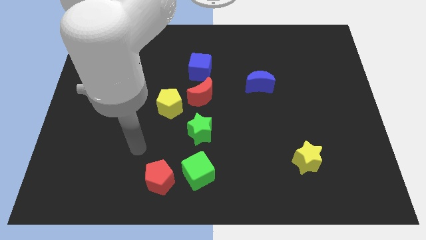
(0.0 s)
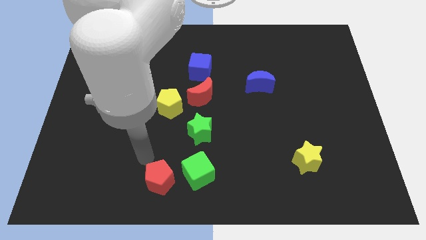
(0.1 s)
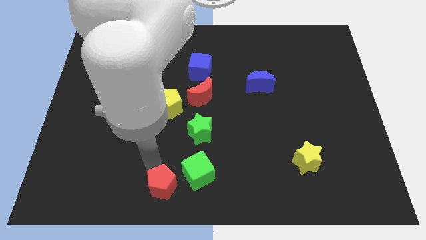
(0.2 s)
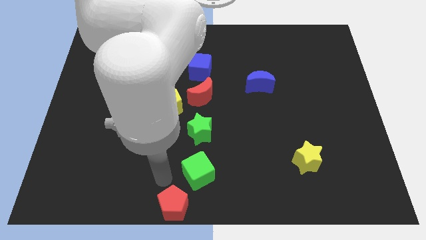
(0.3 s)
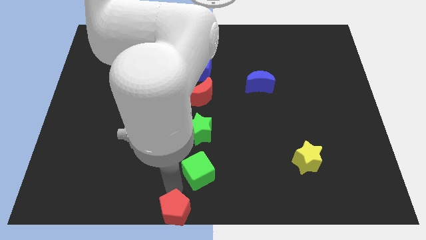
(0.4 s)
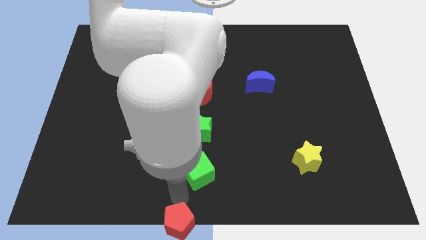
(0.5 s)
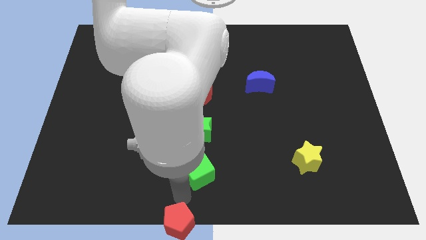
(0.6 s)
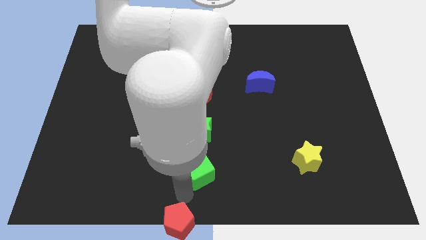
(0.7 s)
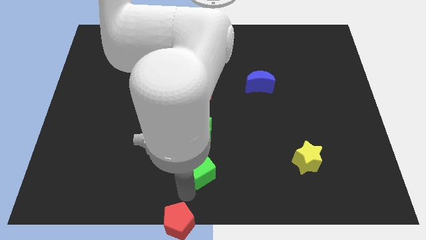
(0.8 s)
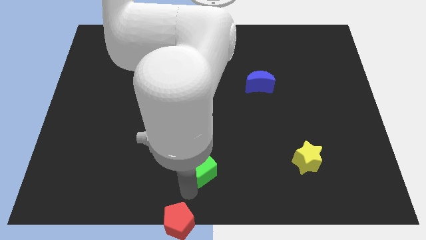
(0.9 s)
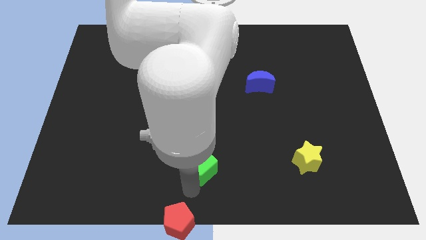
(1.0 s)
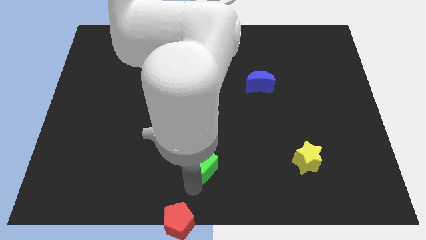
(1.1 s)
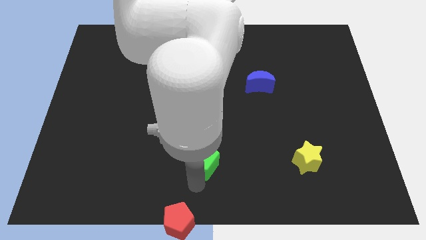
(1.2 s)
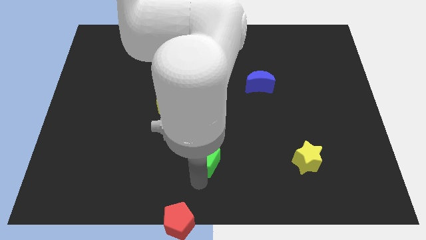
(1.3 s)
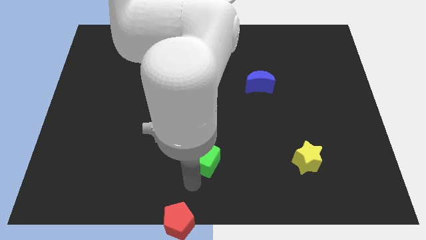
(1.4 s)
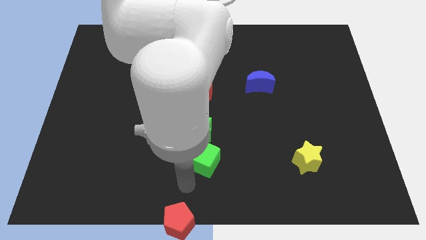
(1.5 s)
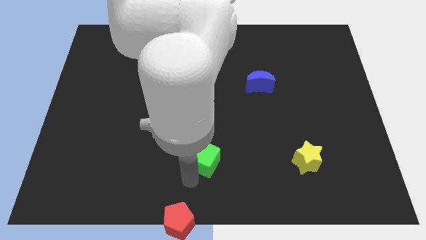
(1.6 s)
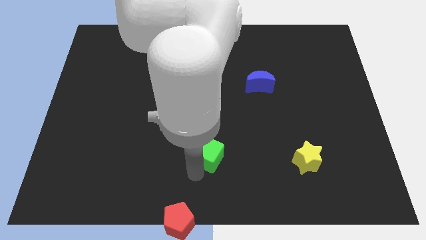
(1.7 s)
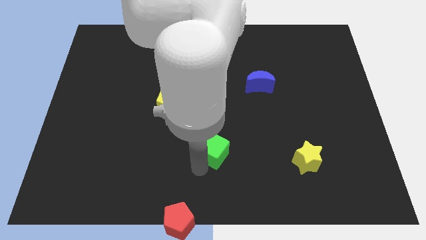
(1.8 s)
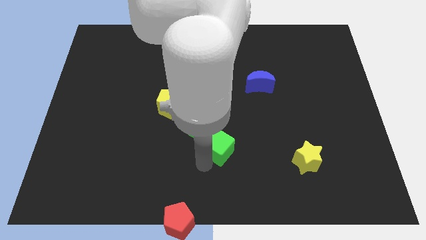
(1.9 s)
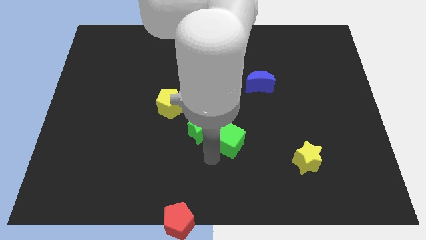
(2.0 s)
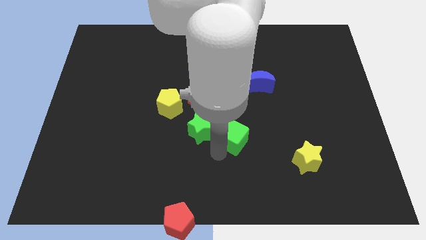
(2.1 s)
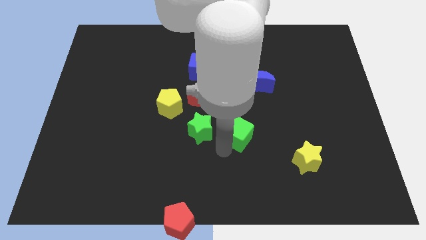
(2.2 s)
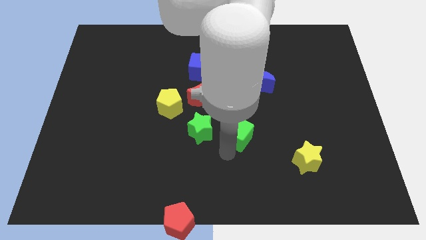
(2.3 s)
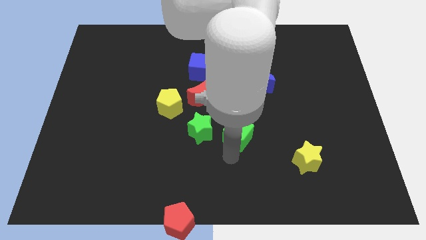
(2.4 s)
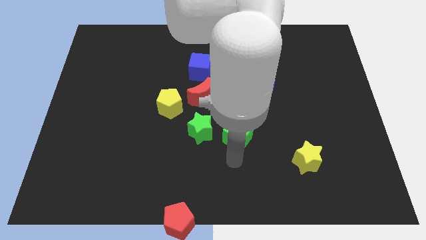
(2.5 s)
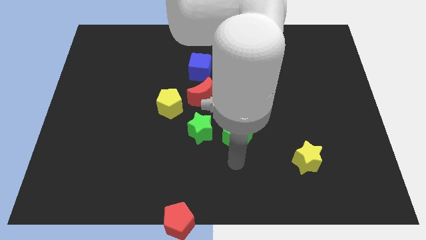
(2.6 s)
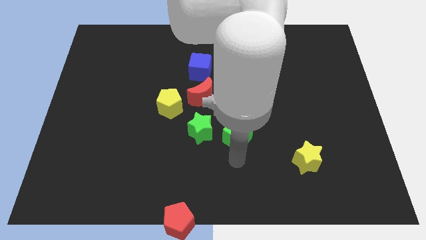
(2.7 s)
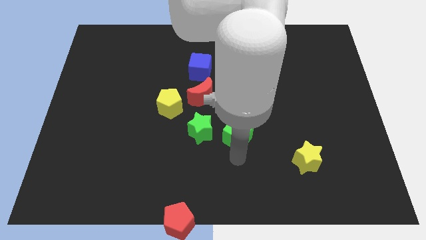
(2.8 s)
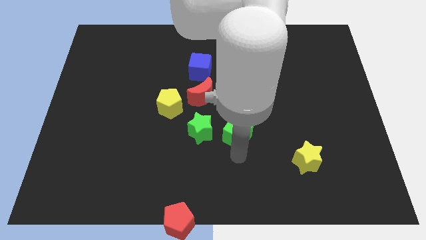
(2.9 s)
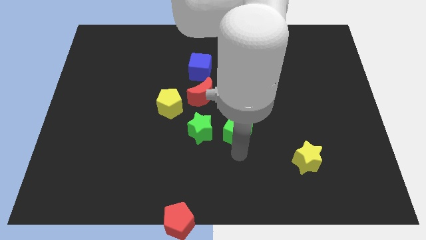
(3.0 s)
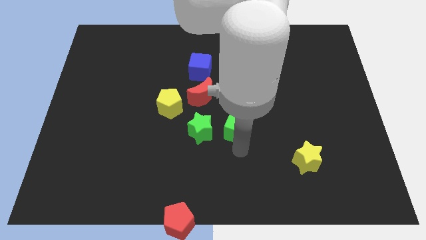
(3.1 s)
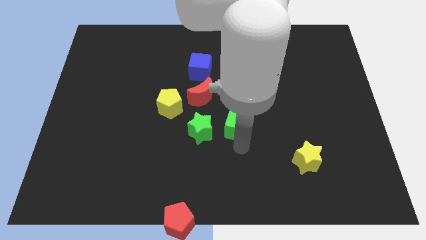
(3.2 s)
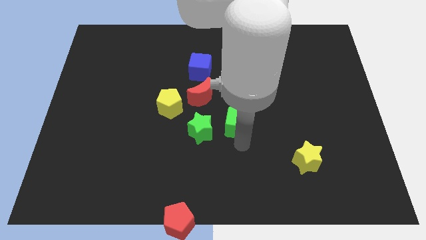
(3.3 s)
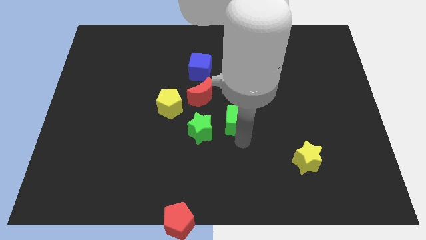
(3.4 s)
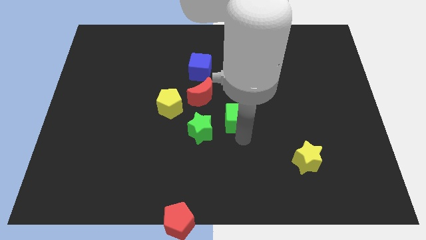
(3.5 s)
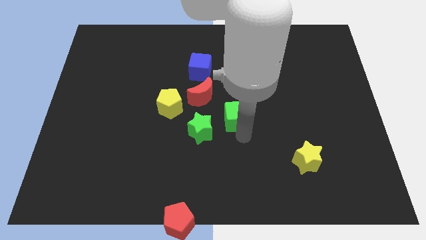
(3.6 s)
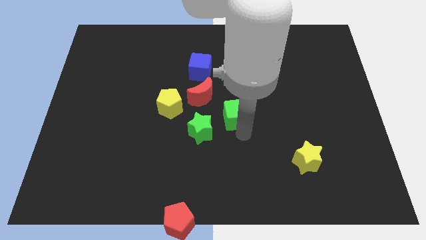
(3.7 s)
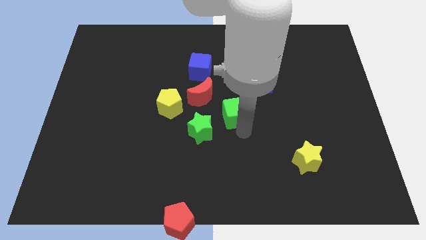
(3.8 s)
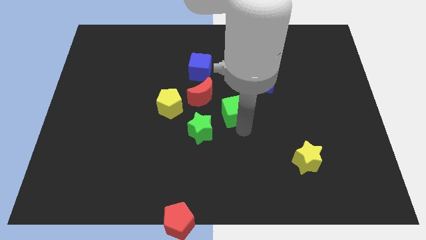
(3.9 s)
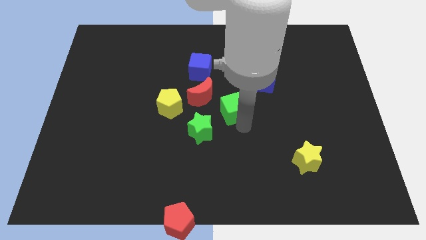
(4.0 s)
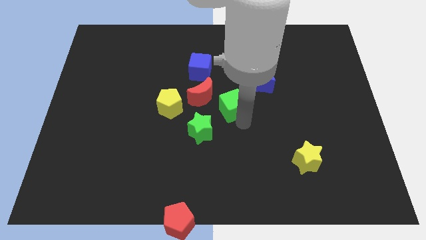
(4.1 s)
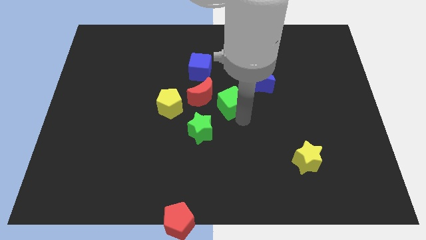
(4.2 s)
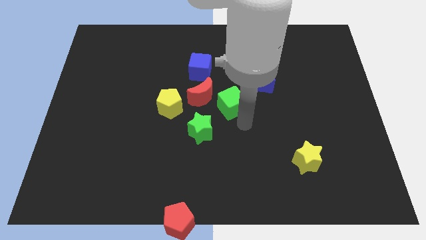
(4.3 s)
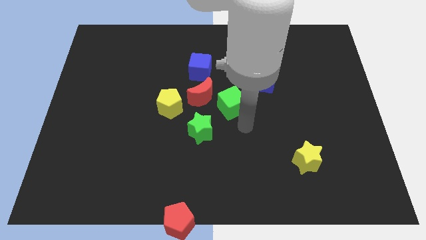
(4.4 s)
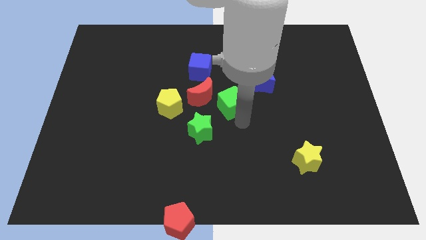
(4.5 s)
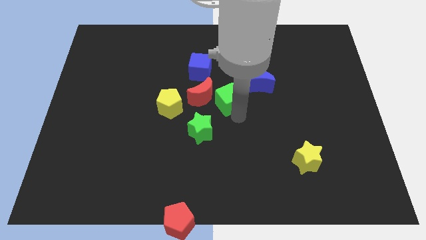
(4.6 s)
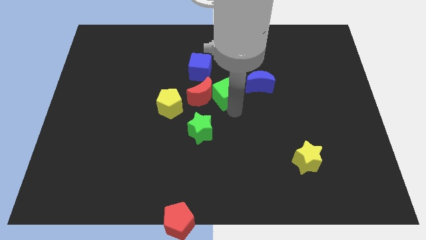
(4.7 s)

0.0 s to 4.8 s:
push the green cube to the left side of the blue moon

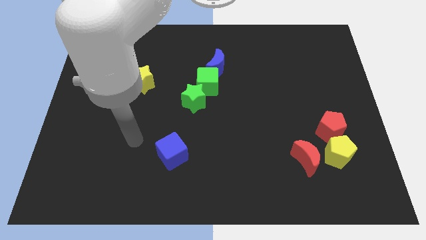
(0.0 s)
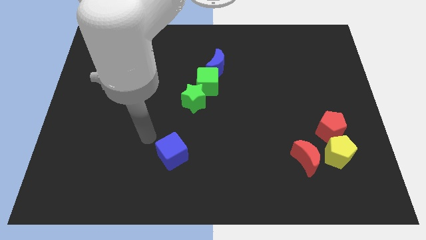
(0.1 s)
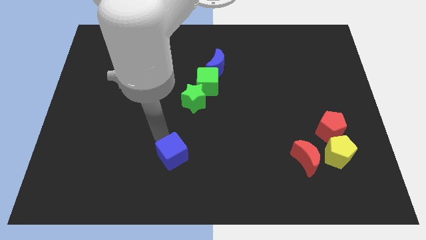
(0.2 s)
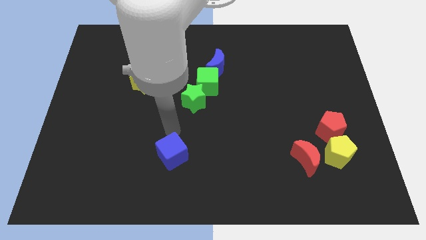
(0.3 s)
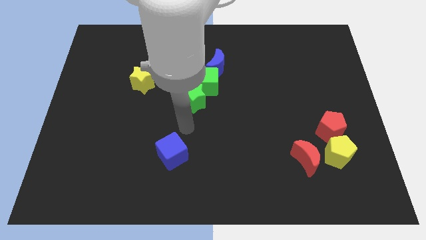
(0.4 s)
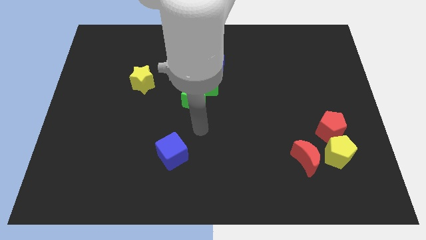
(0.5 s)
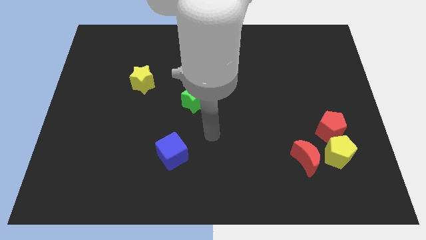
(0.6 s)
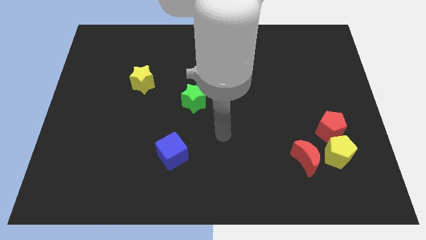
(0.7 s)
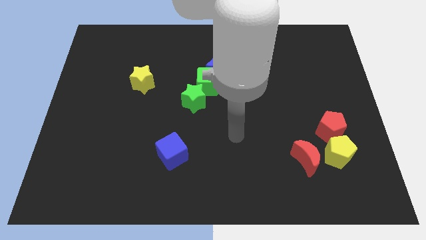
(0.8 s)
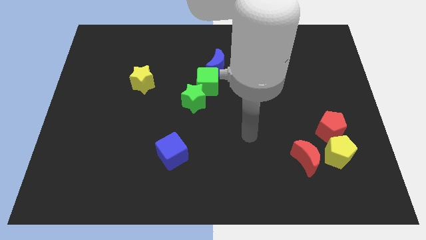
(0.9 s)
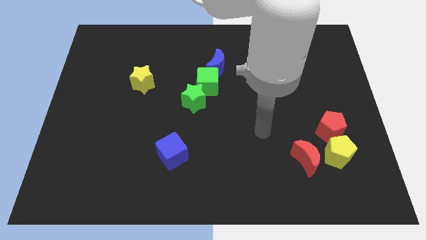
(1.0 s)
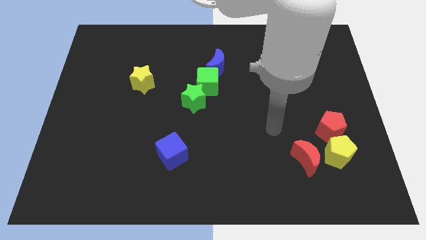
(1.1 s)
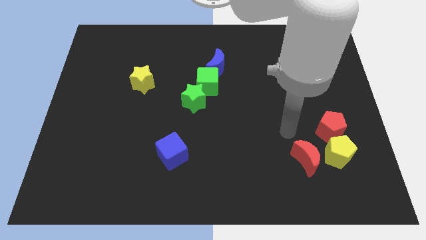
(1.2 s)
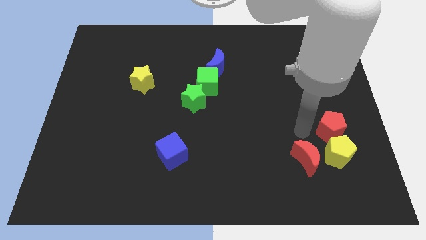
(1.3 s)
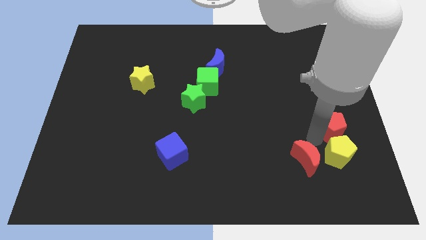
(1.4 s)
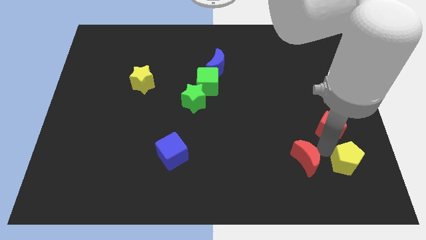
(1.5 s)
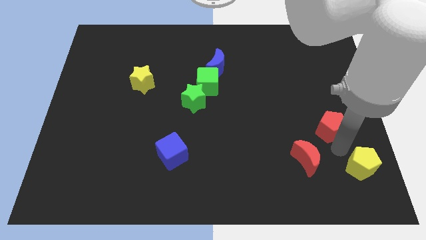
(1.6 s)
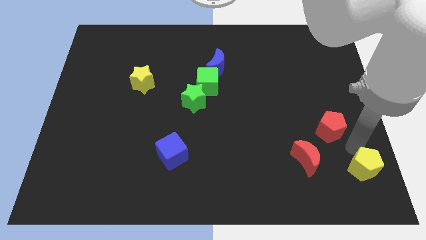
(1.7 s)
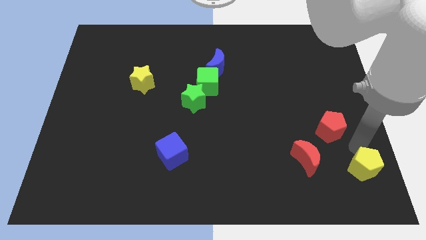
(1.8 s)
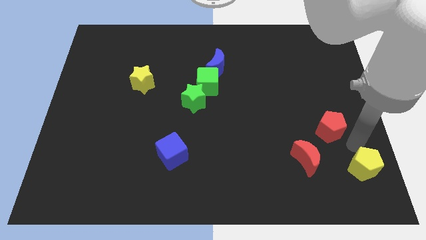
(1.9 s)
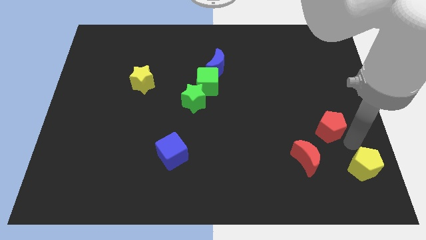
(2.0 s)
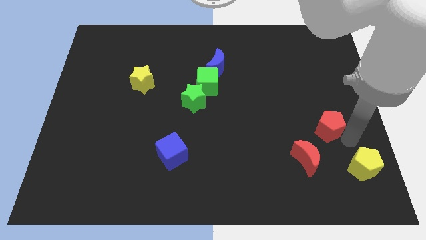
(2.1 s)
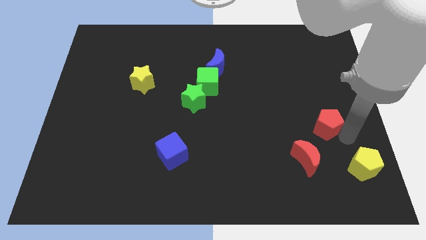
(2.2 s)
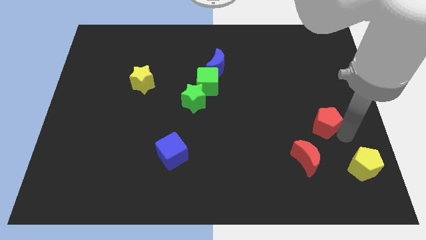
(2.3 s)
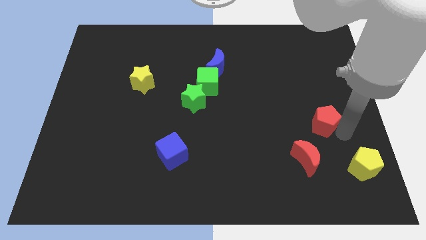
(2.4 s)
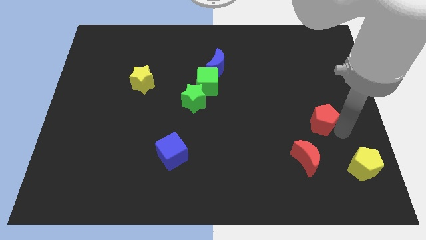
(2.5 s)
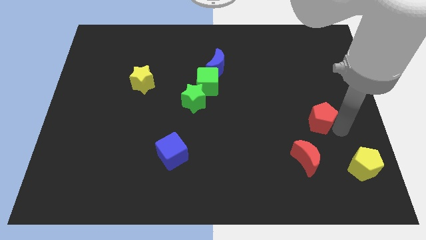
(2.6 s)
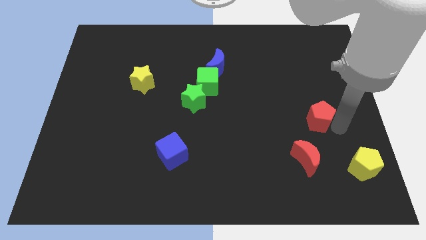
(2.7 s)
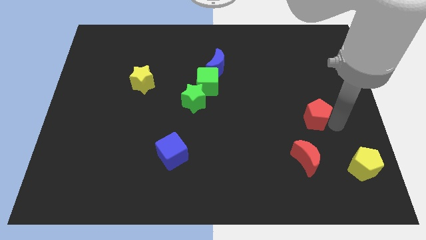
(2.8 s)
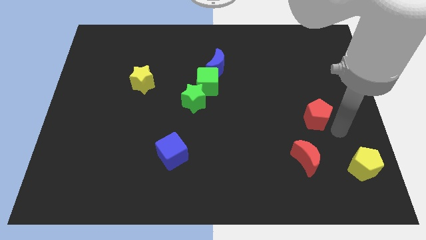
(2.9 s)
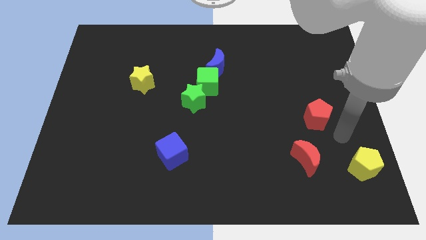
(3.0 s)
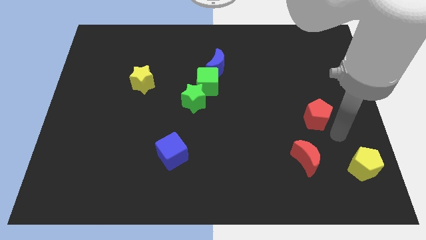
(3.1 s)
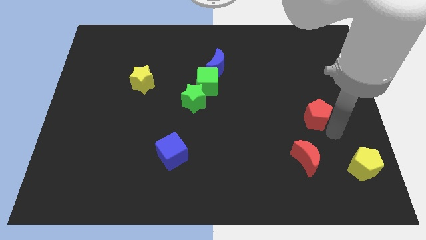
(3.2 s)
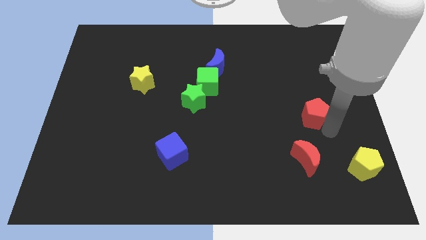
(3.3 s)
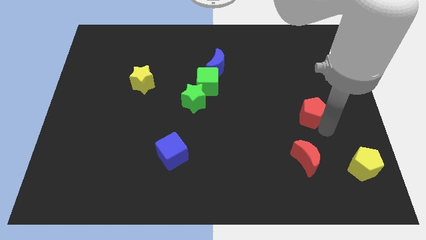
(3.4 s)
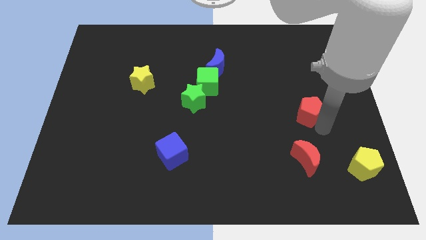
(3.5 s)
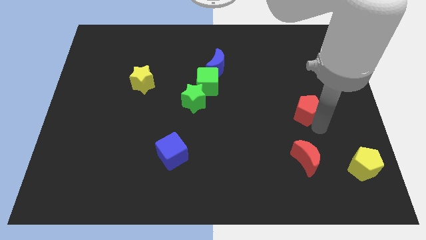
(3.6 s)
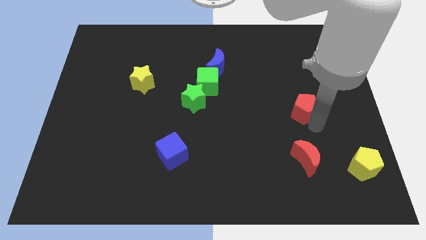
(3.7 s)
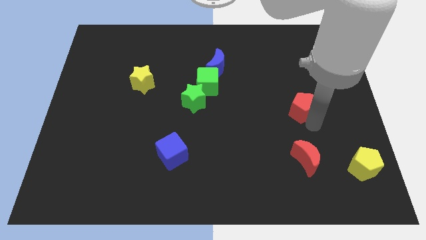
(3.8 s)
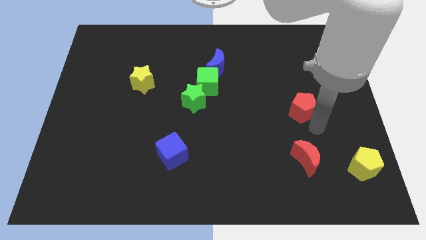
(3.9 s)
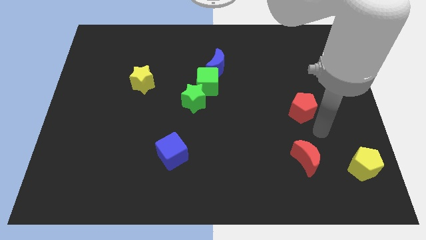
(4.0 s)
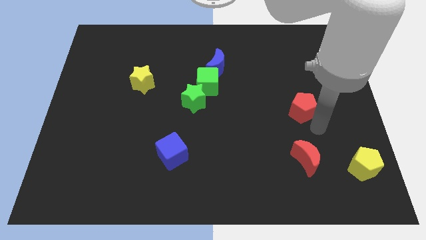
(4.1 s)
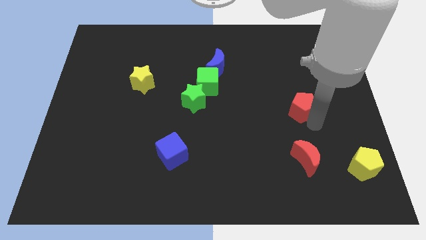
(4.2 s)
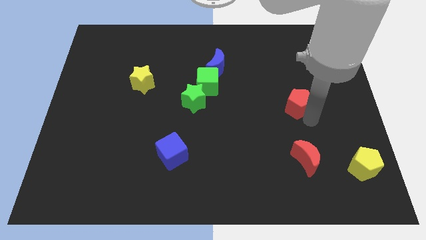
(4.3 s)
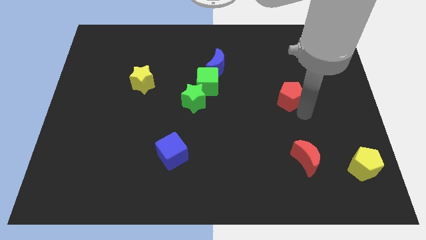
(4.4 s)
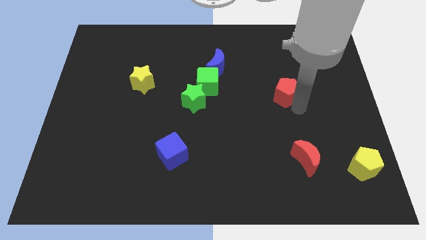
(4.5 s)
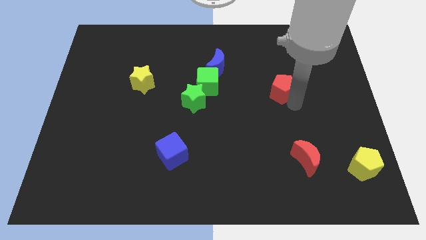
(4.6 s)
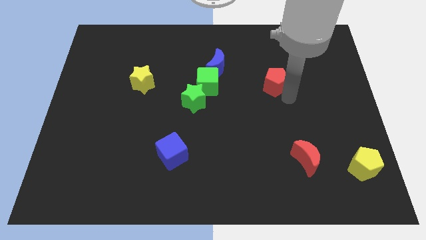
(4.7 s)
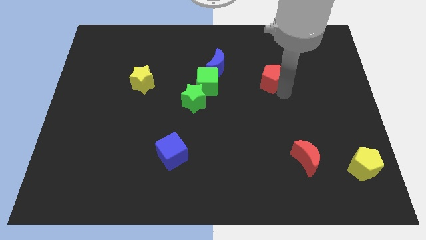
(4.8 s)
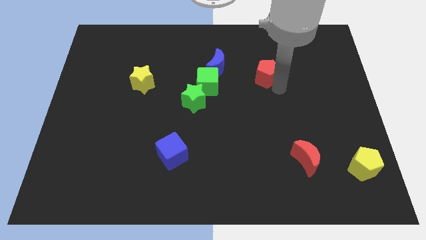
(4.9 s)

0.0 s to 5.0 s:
put the red pentagon just right of the blue moon
